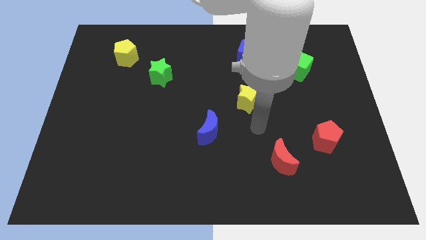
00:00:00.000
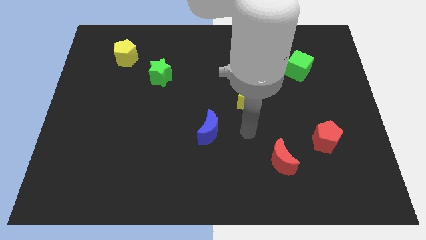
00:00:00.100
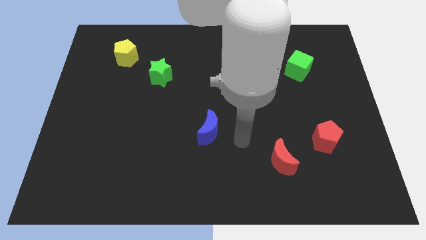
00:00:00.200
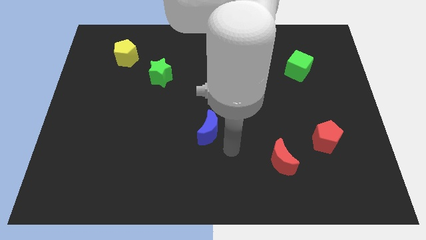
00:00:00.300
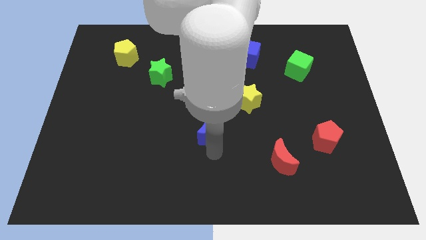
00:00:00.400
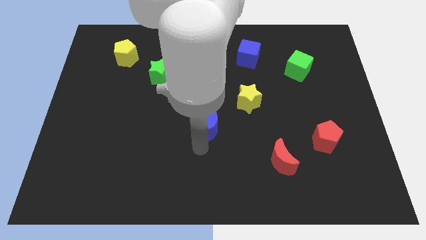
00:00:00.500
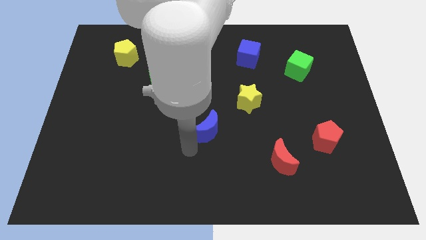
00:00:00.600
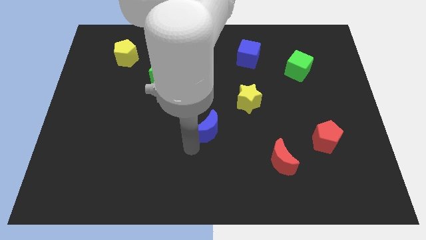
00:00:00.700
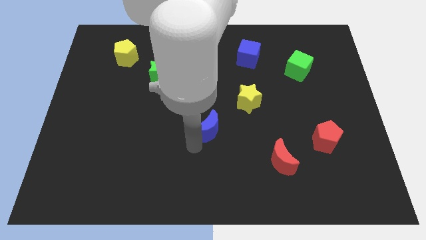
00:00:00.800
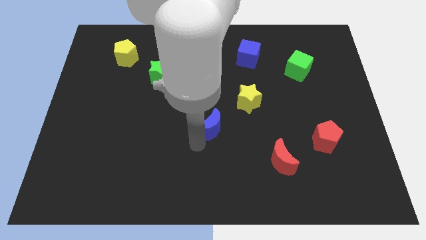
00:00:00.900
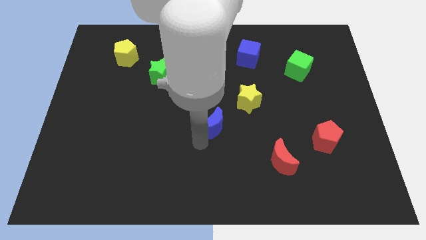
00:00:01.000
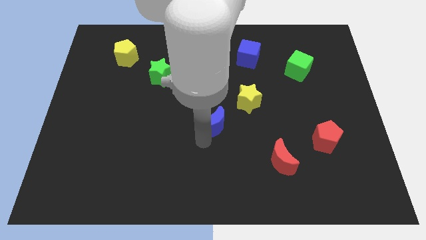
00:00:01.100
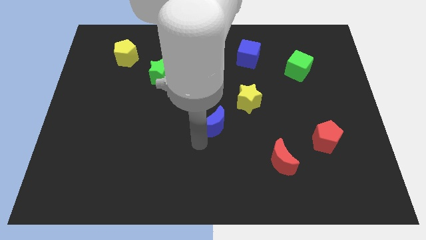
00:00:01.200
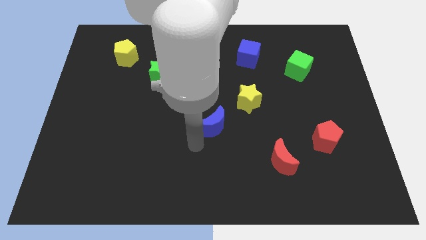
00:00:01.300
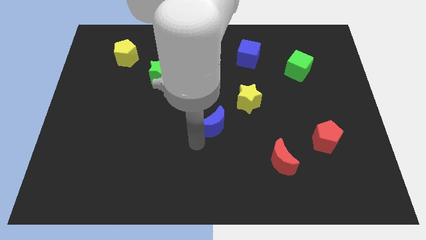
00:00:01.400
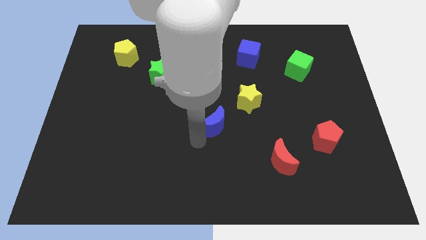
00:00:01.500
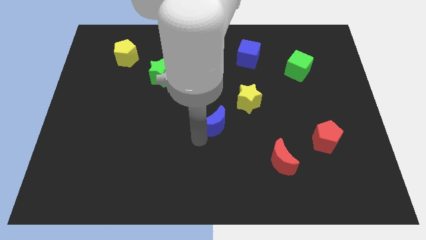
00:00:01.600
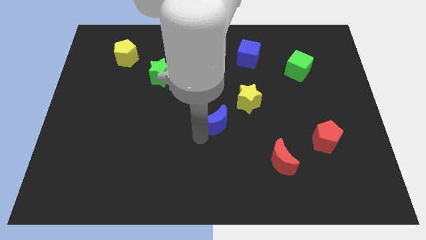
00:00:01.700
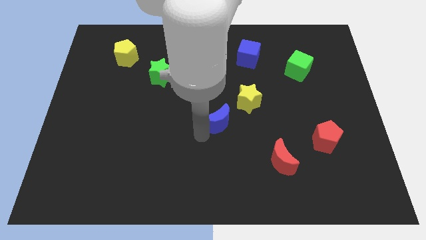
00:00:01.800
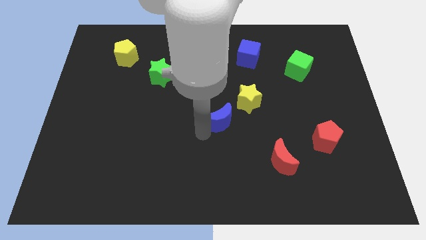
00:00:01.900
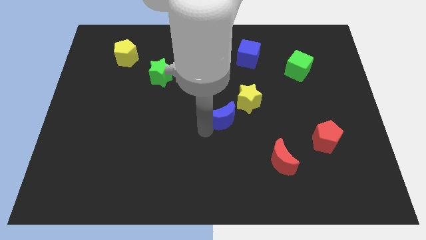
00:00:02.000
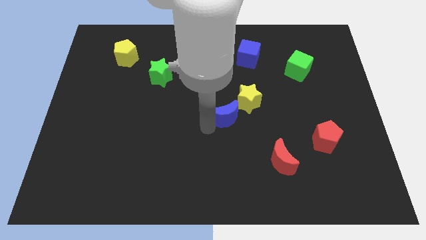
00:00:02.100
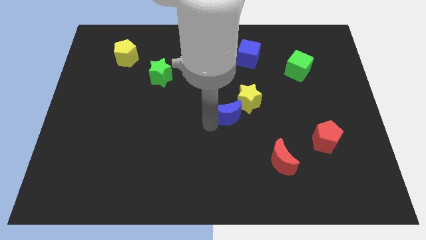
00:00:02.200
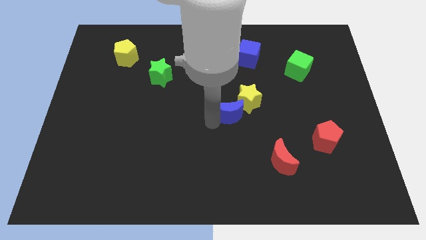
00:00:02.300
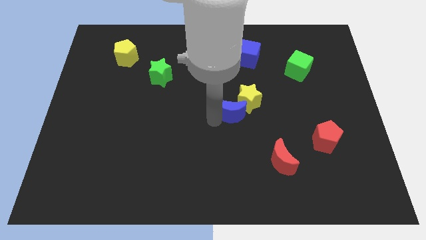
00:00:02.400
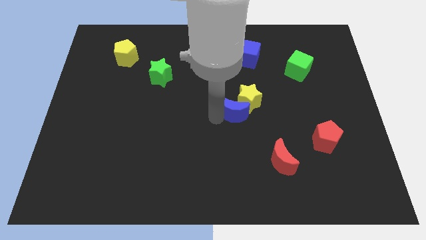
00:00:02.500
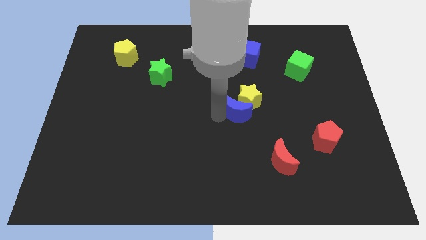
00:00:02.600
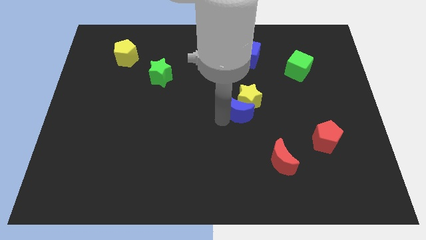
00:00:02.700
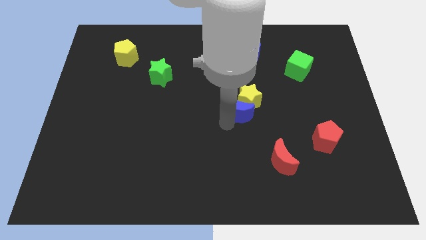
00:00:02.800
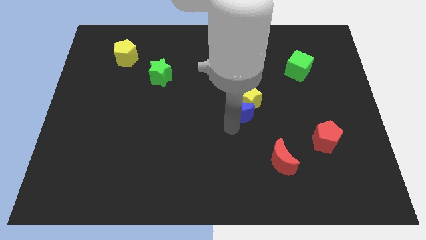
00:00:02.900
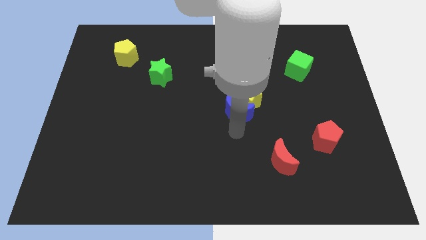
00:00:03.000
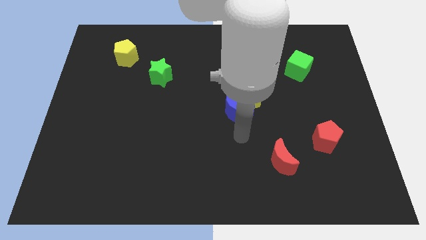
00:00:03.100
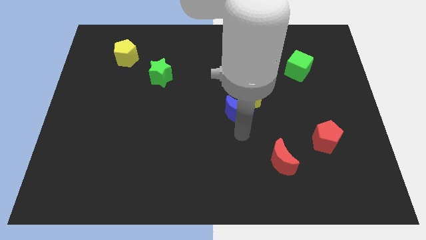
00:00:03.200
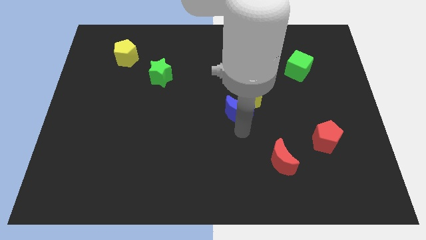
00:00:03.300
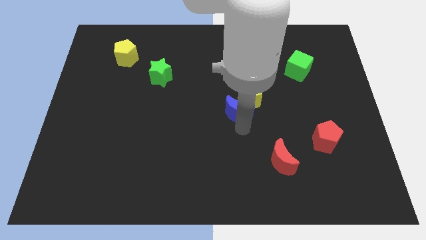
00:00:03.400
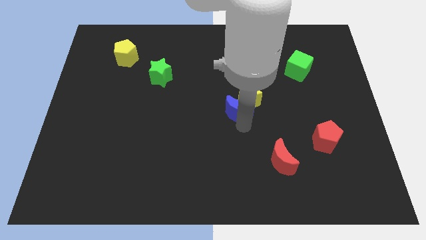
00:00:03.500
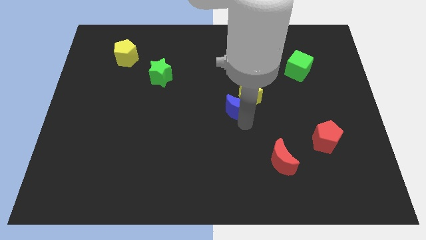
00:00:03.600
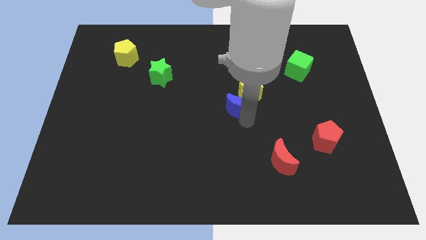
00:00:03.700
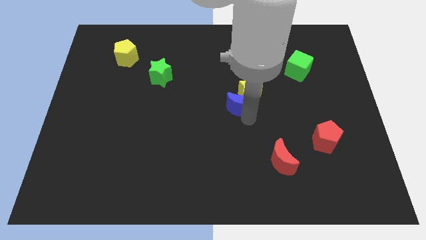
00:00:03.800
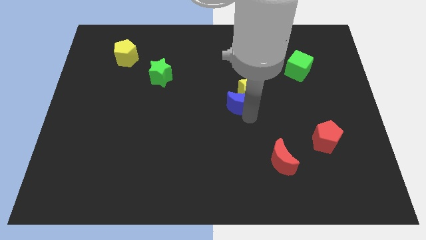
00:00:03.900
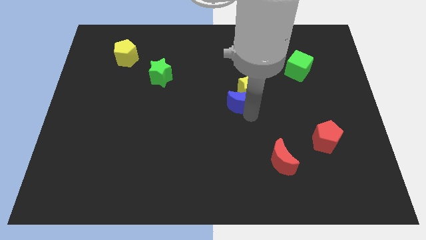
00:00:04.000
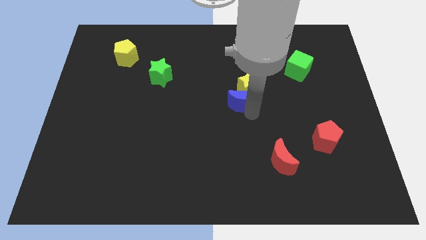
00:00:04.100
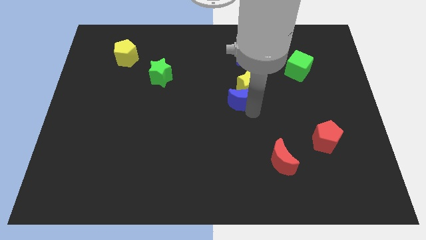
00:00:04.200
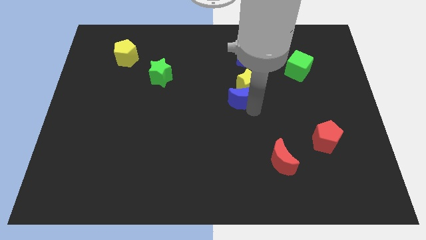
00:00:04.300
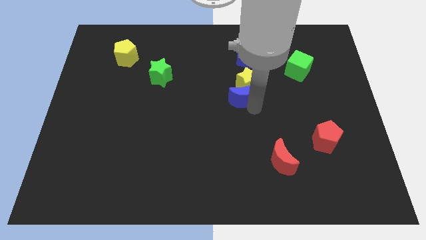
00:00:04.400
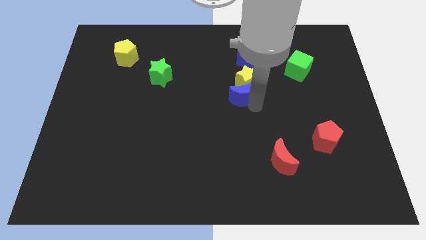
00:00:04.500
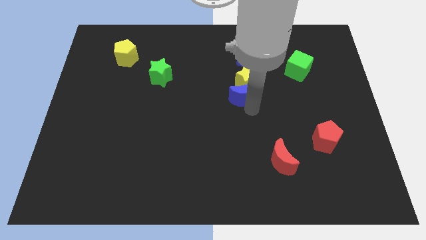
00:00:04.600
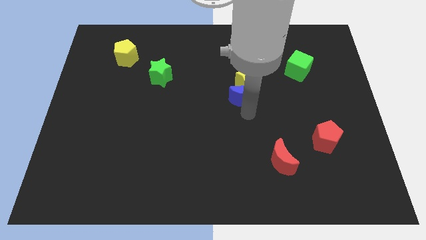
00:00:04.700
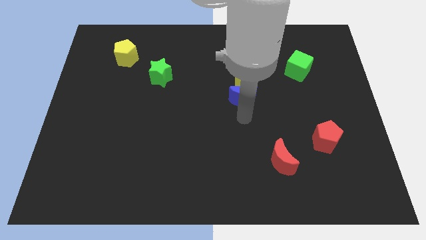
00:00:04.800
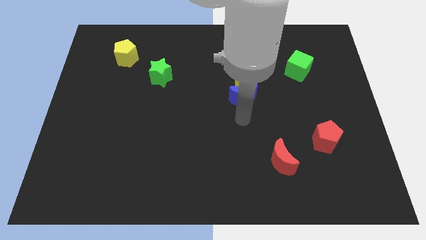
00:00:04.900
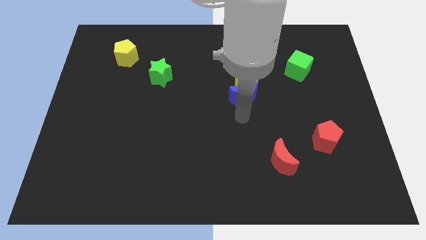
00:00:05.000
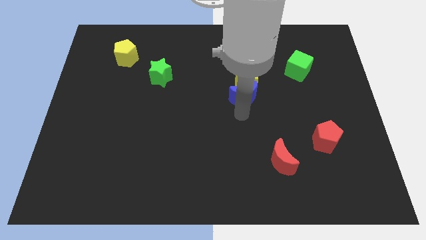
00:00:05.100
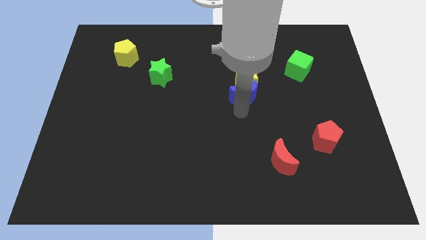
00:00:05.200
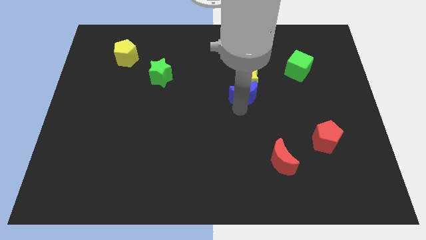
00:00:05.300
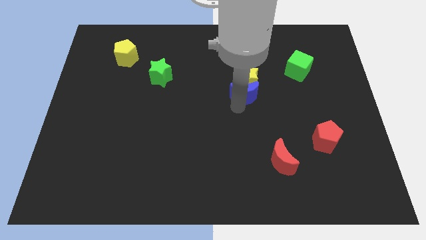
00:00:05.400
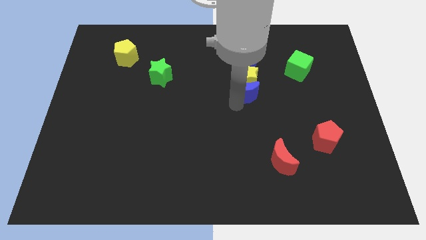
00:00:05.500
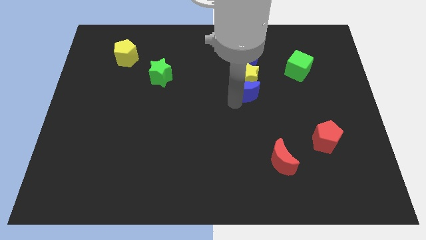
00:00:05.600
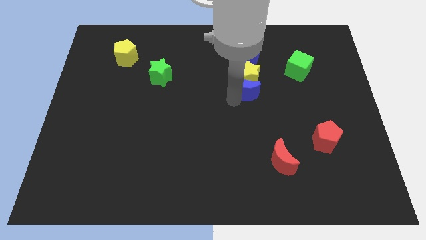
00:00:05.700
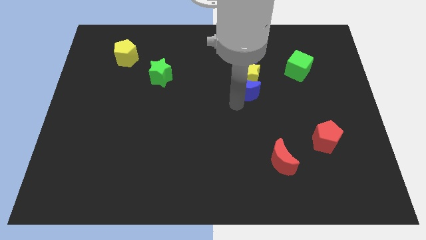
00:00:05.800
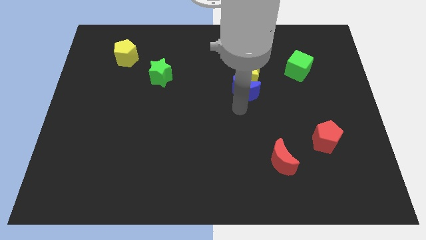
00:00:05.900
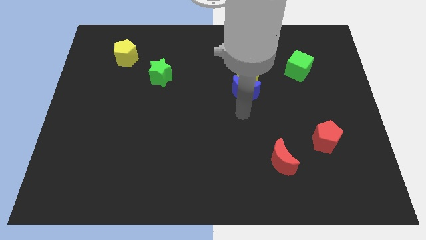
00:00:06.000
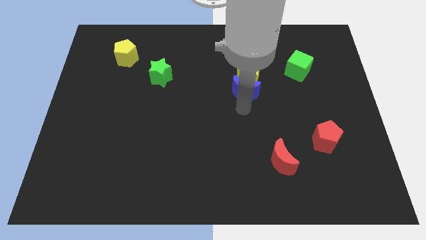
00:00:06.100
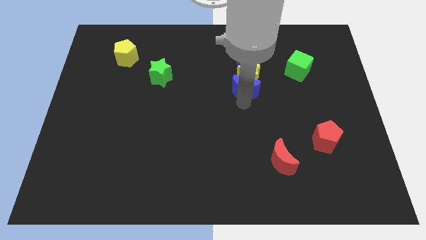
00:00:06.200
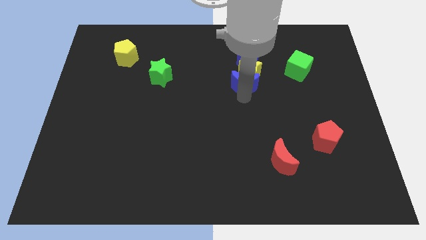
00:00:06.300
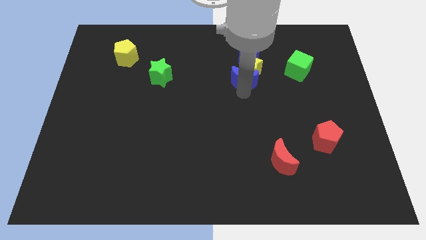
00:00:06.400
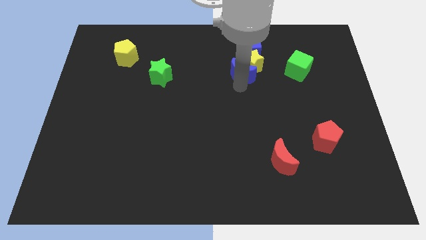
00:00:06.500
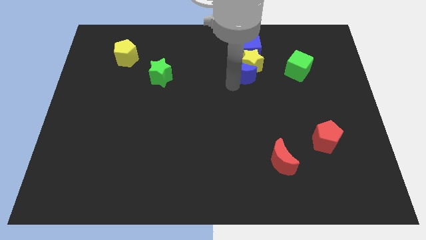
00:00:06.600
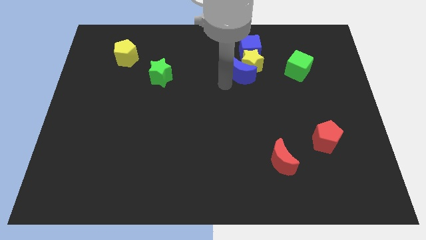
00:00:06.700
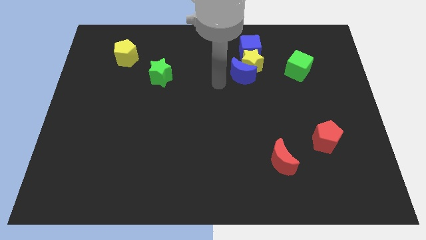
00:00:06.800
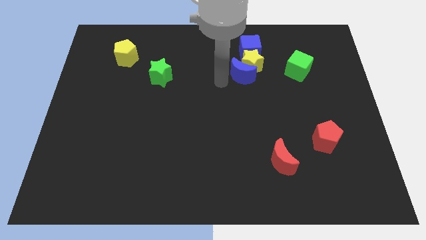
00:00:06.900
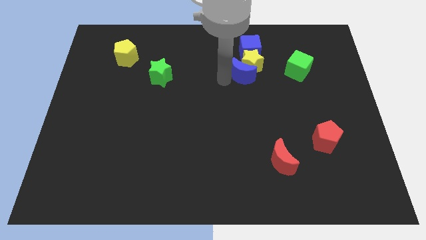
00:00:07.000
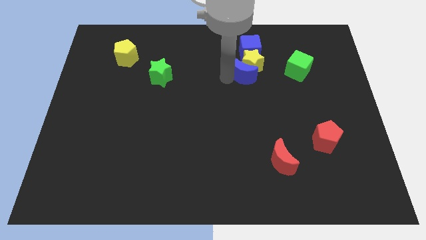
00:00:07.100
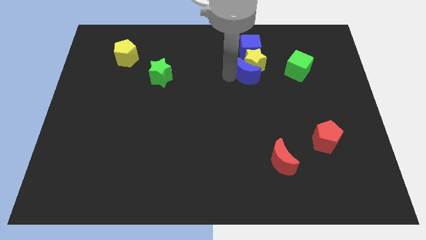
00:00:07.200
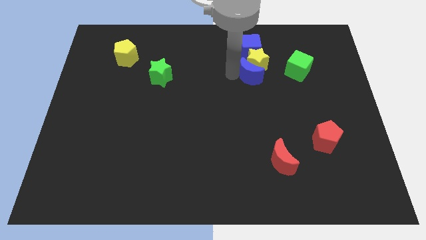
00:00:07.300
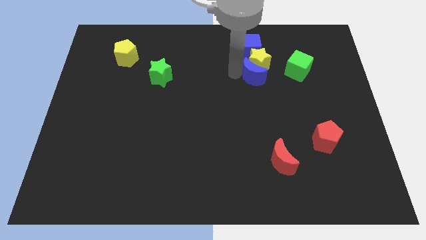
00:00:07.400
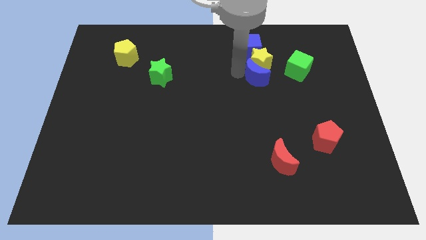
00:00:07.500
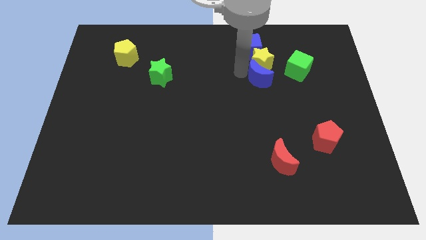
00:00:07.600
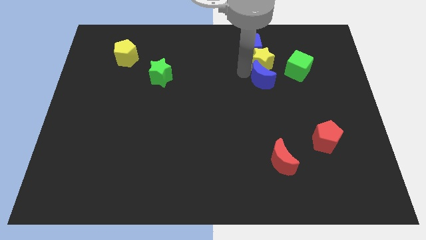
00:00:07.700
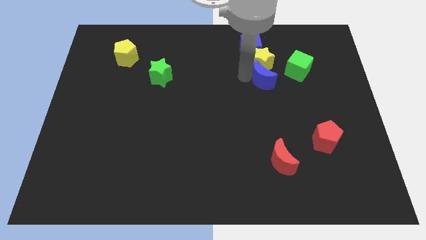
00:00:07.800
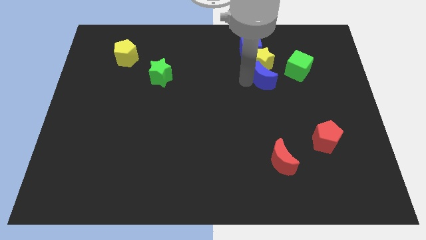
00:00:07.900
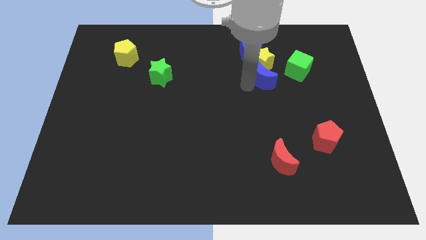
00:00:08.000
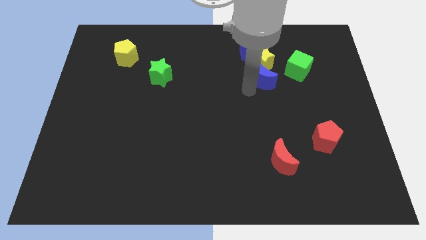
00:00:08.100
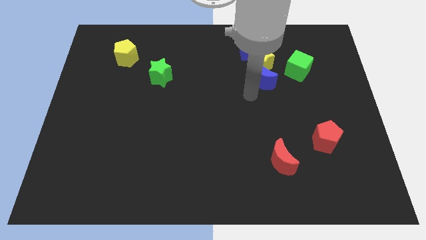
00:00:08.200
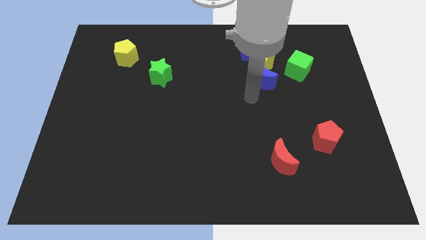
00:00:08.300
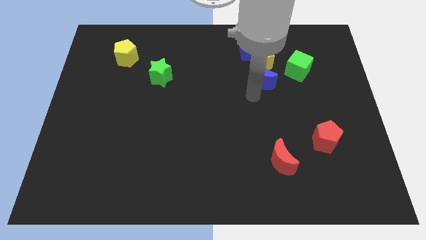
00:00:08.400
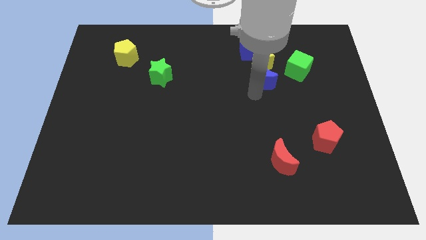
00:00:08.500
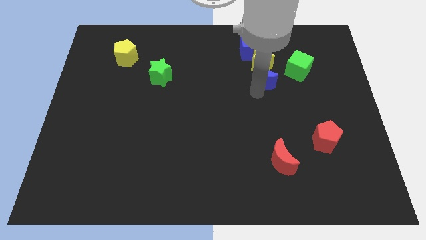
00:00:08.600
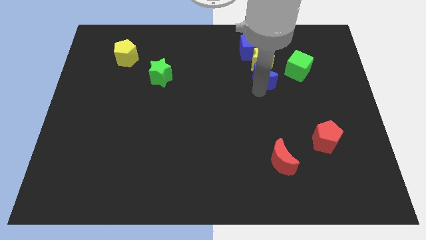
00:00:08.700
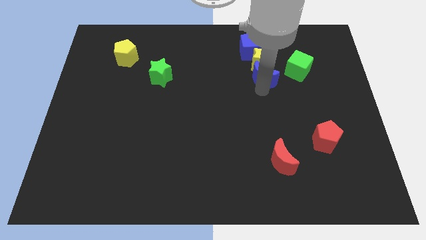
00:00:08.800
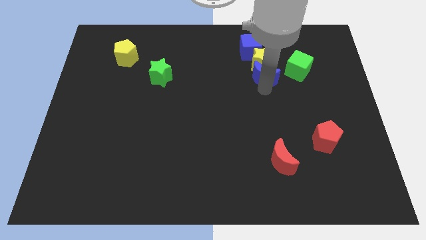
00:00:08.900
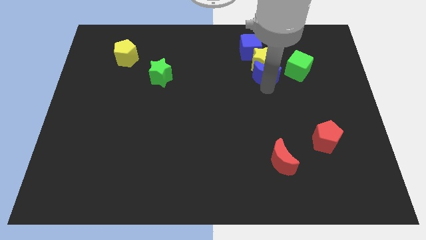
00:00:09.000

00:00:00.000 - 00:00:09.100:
move the blue moon to the bottom right side of the blue cube
